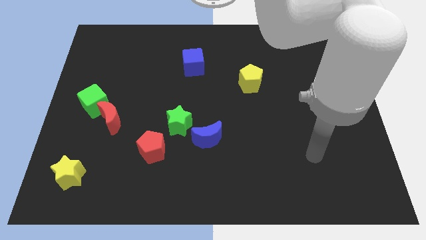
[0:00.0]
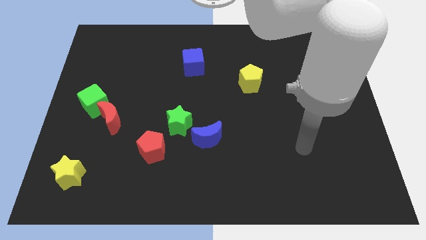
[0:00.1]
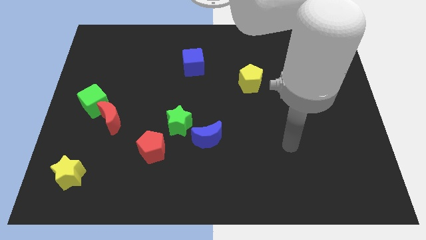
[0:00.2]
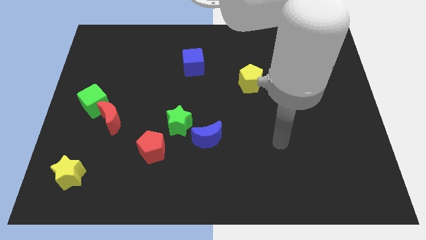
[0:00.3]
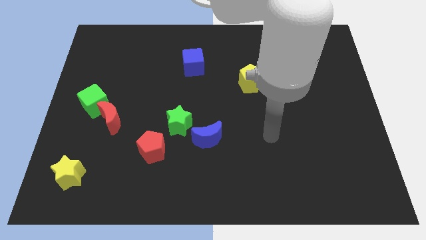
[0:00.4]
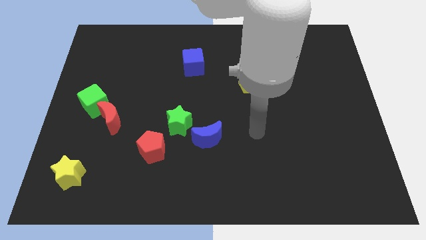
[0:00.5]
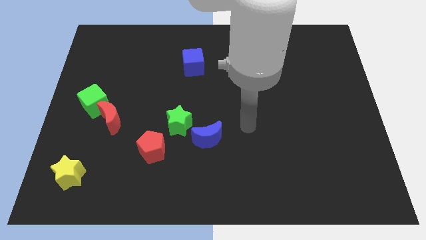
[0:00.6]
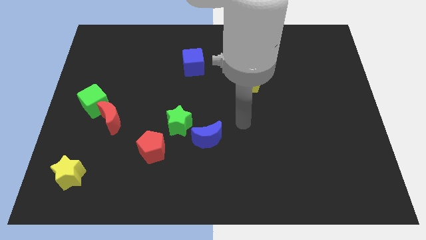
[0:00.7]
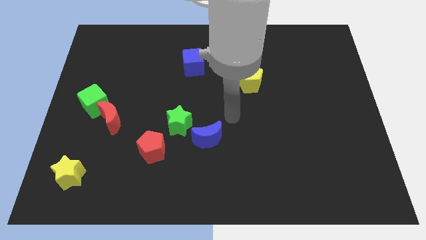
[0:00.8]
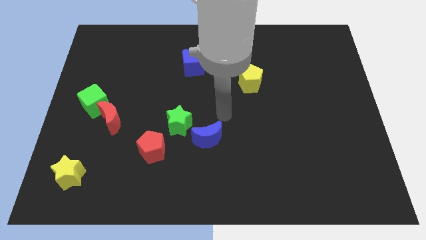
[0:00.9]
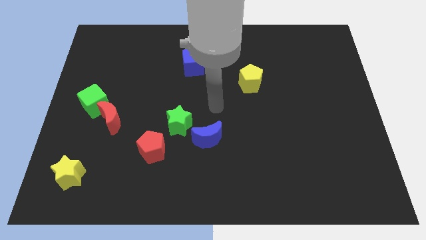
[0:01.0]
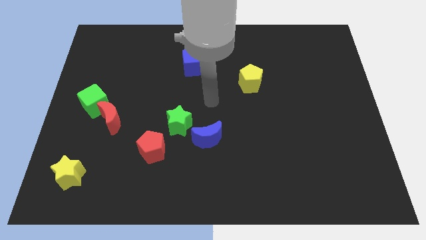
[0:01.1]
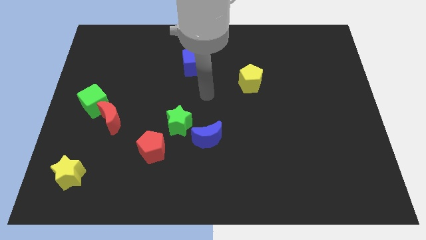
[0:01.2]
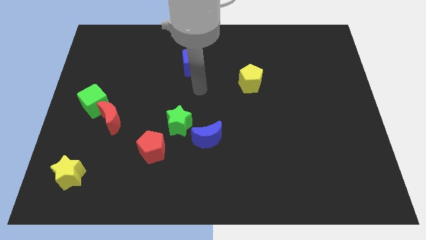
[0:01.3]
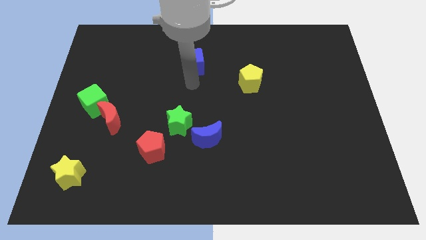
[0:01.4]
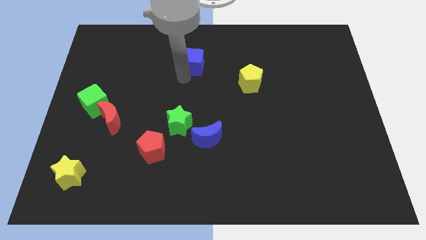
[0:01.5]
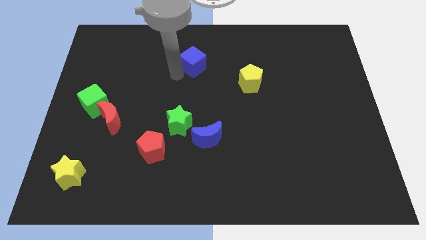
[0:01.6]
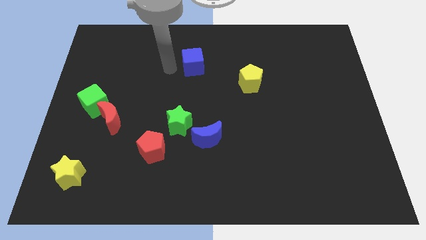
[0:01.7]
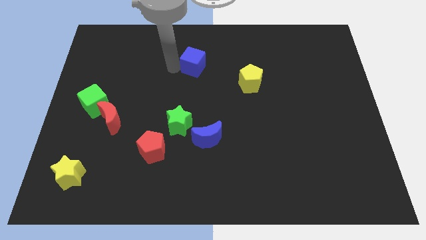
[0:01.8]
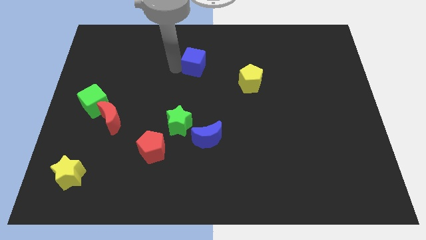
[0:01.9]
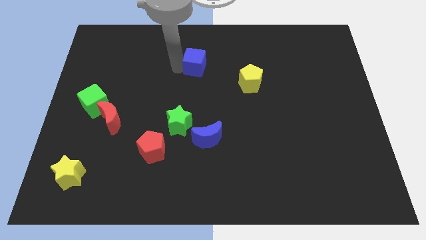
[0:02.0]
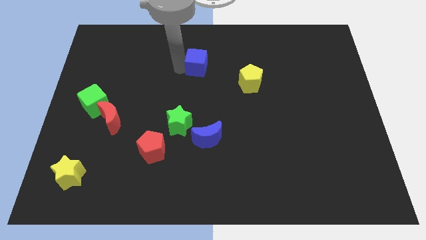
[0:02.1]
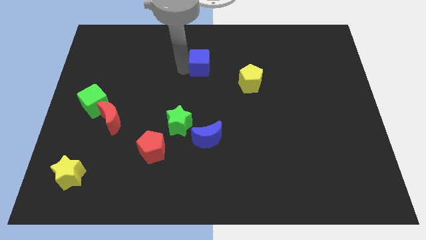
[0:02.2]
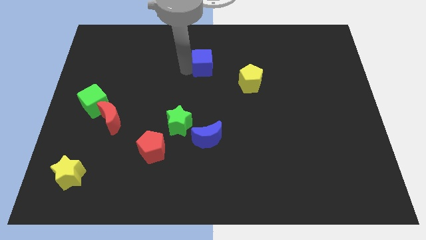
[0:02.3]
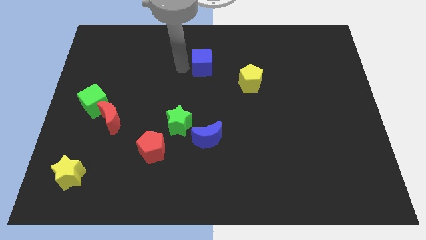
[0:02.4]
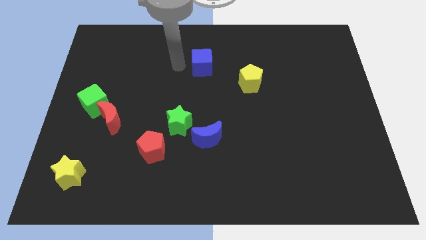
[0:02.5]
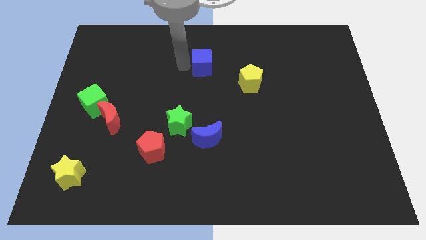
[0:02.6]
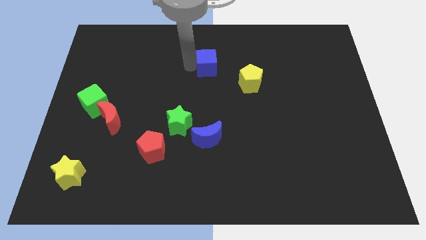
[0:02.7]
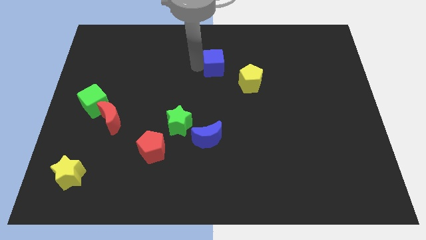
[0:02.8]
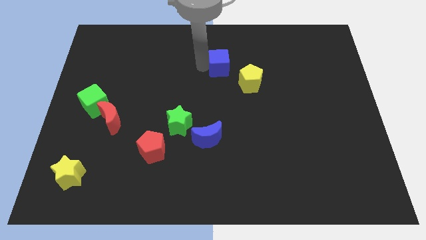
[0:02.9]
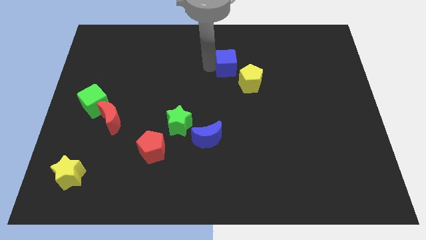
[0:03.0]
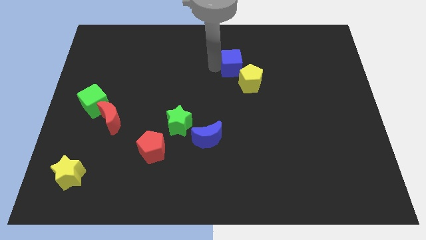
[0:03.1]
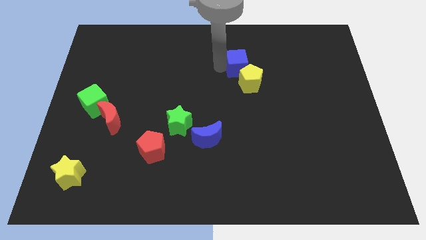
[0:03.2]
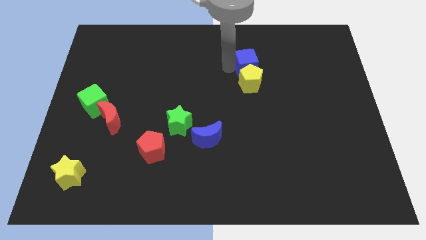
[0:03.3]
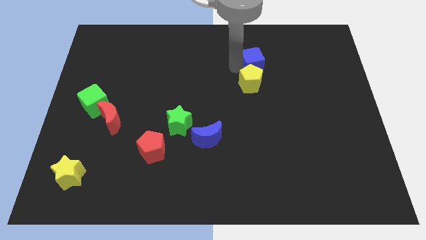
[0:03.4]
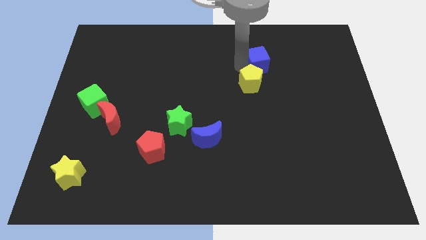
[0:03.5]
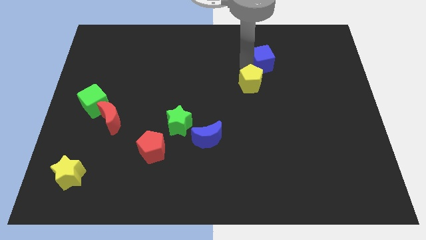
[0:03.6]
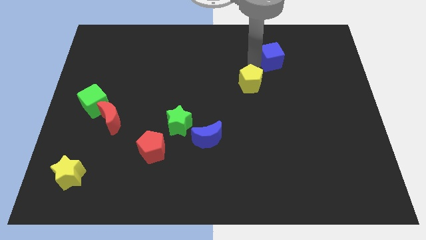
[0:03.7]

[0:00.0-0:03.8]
move the blue cube to the right

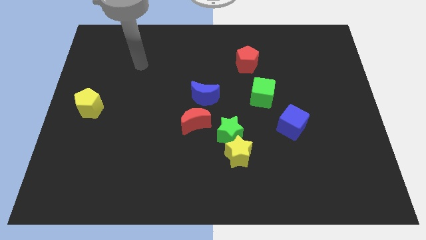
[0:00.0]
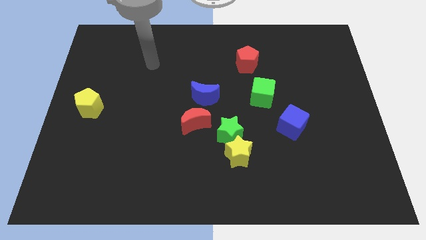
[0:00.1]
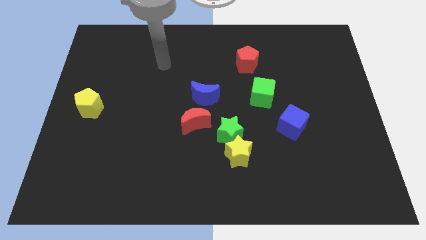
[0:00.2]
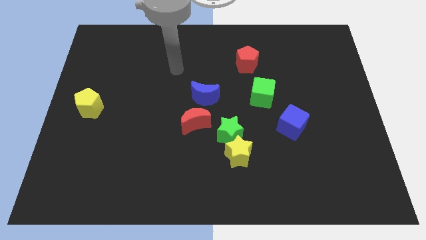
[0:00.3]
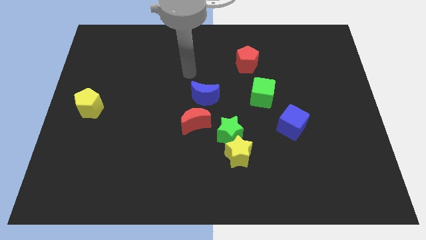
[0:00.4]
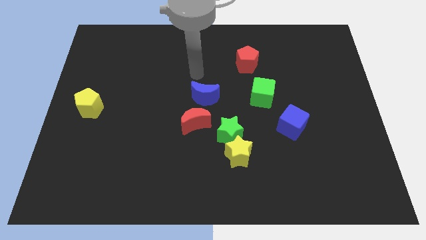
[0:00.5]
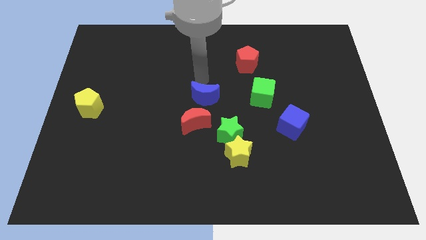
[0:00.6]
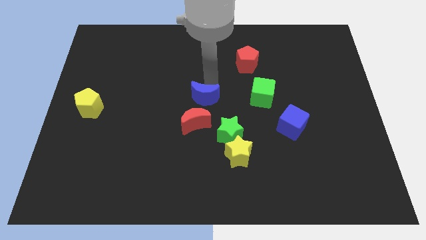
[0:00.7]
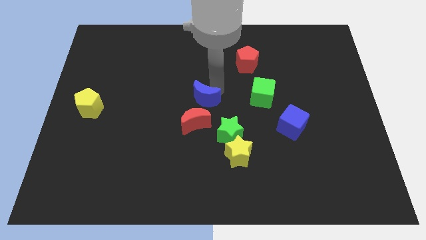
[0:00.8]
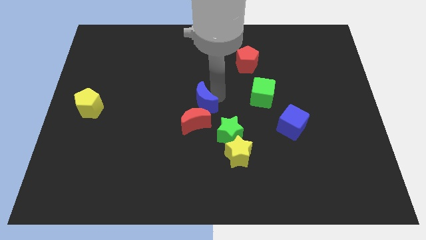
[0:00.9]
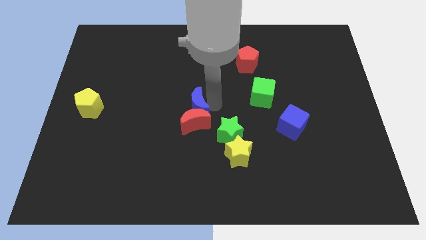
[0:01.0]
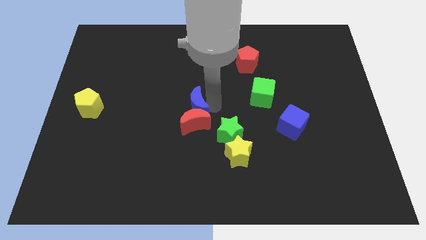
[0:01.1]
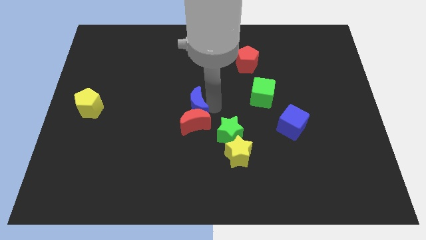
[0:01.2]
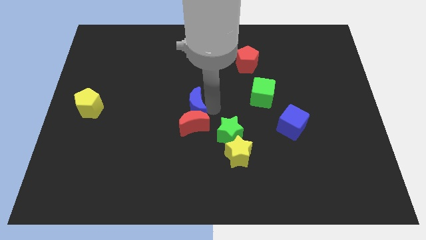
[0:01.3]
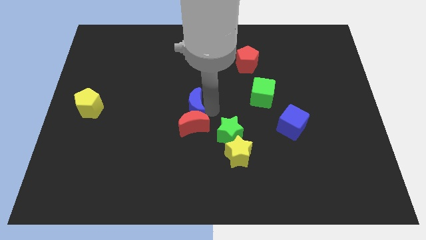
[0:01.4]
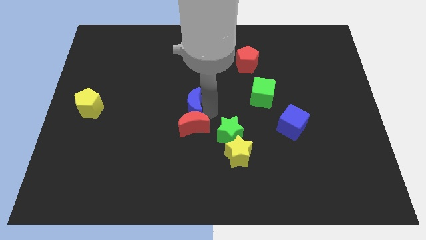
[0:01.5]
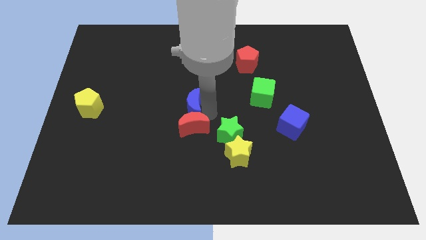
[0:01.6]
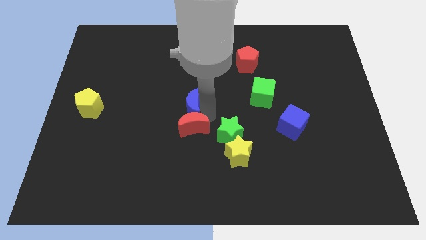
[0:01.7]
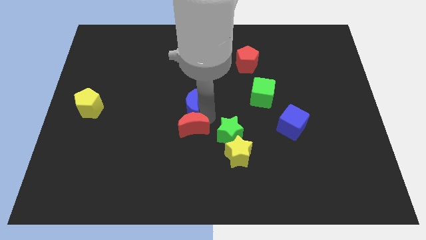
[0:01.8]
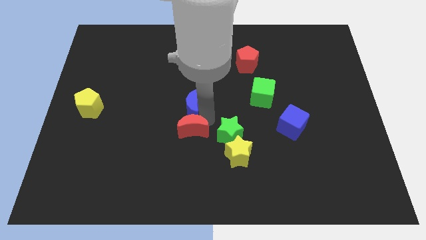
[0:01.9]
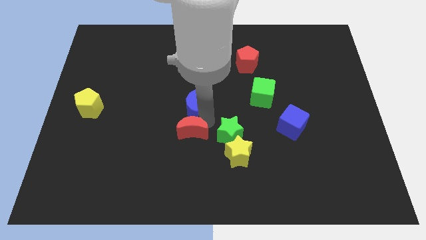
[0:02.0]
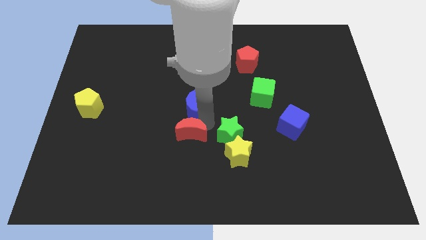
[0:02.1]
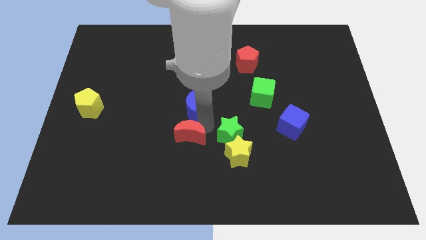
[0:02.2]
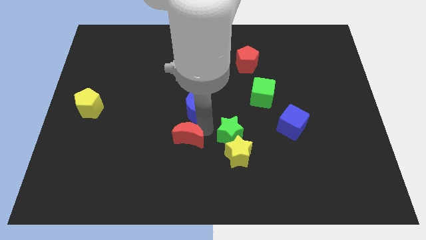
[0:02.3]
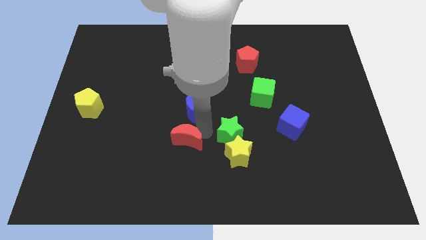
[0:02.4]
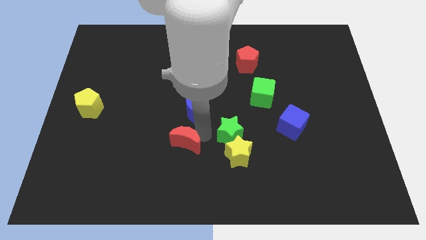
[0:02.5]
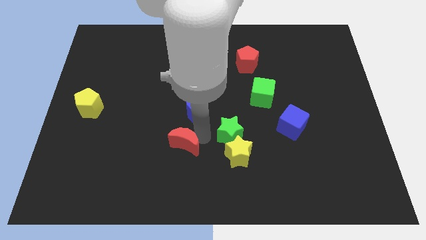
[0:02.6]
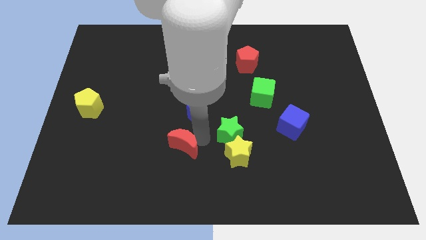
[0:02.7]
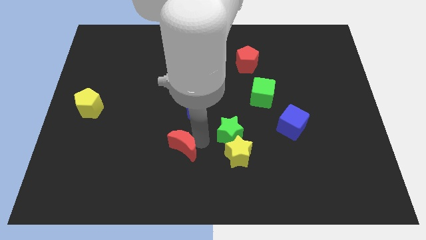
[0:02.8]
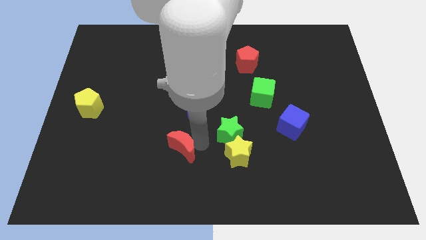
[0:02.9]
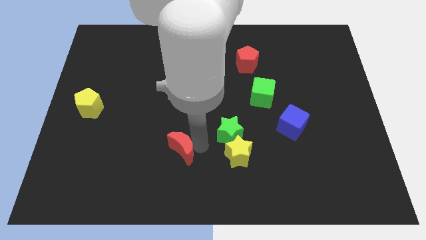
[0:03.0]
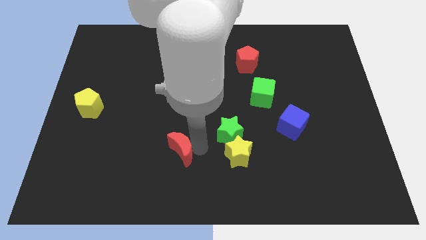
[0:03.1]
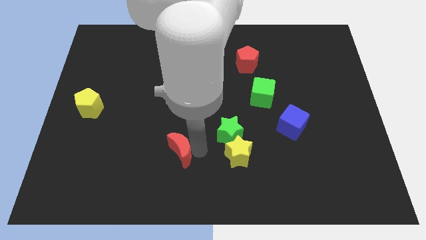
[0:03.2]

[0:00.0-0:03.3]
slightly move the red moon down and then left

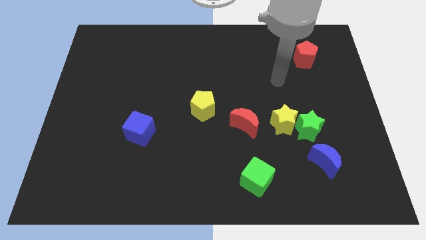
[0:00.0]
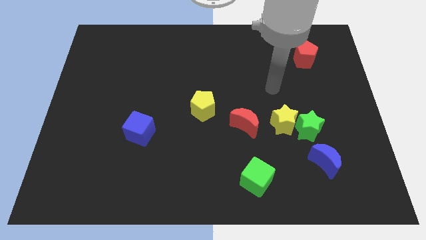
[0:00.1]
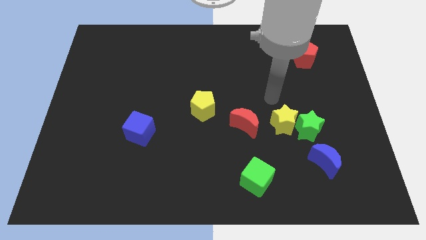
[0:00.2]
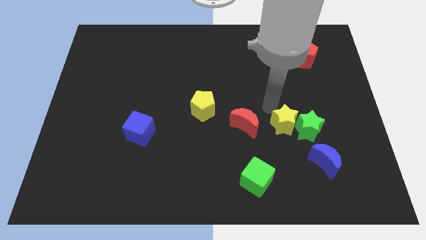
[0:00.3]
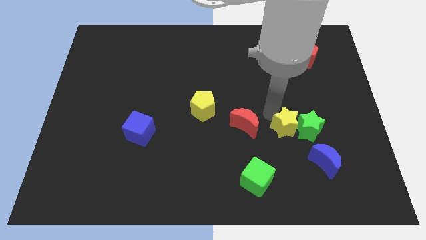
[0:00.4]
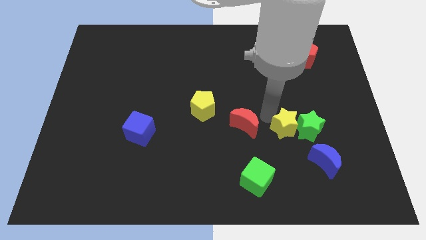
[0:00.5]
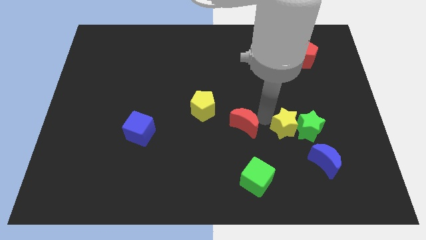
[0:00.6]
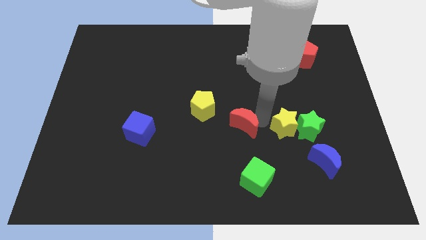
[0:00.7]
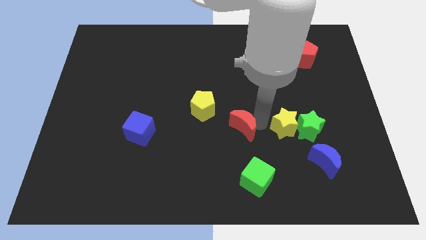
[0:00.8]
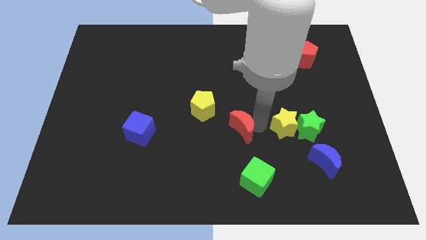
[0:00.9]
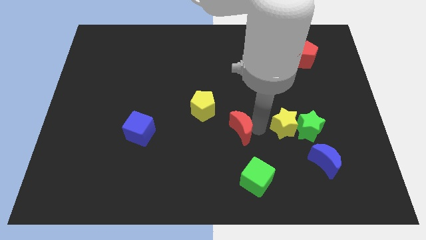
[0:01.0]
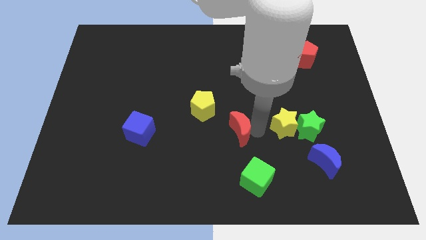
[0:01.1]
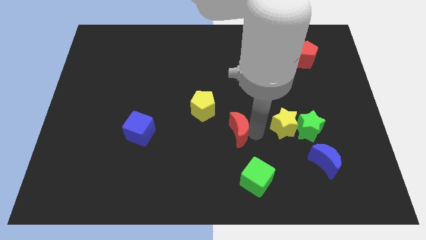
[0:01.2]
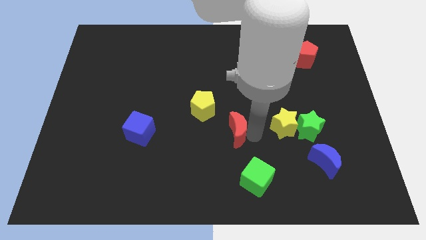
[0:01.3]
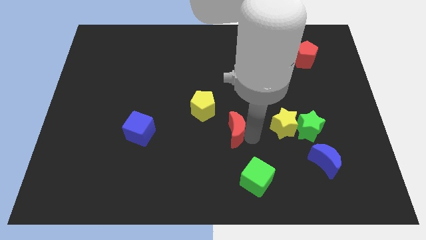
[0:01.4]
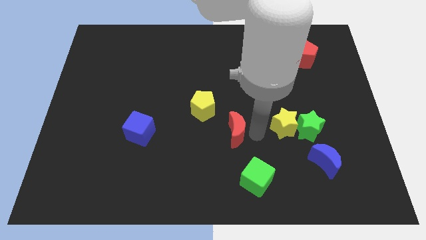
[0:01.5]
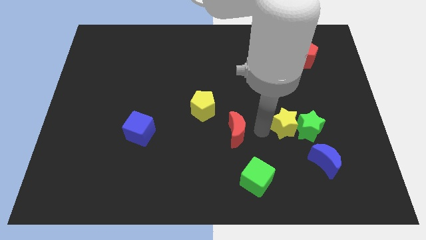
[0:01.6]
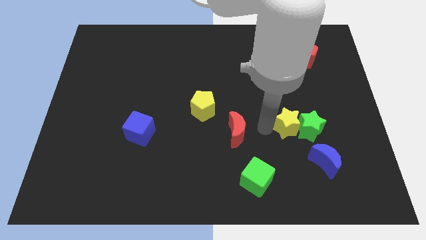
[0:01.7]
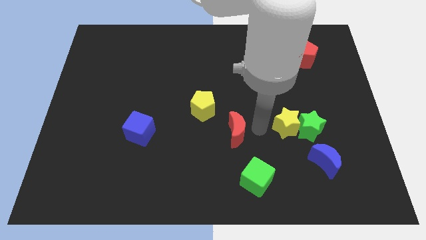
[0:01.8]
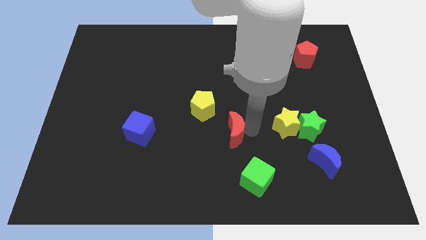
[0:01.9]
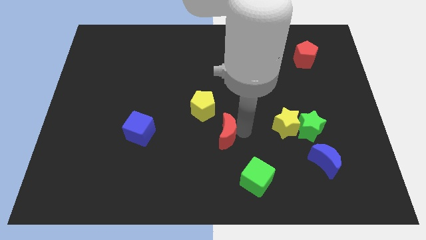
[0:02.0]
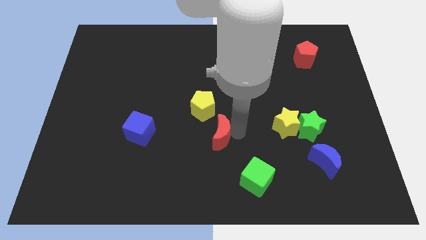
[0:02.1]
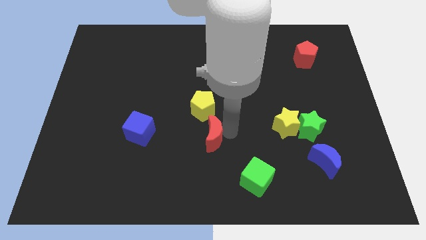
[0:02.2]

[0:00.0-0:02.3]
push the red moon somewhat downwards and to the left diagonally
